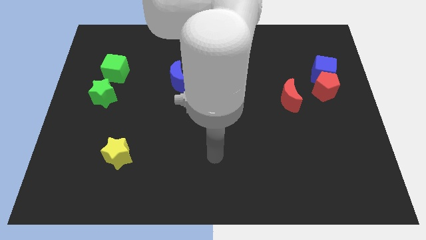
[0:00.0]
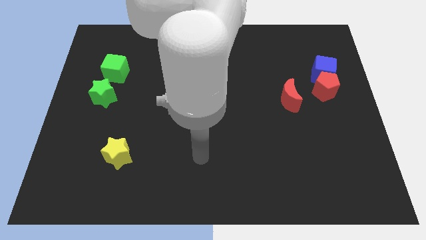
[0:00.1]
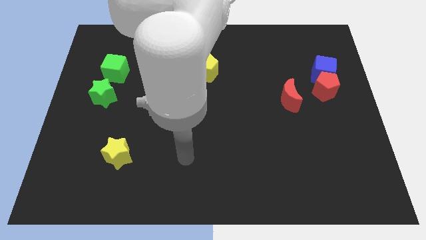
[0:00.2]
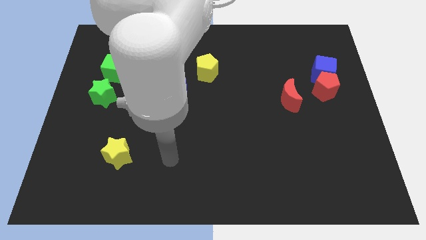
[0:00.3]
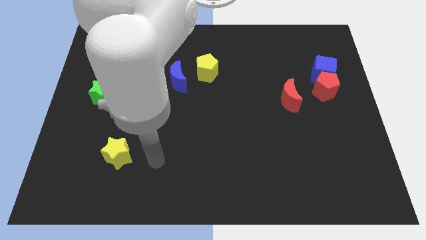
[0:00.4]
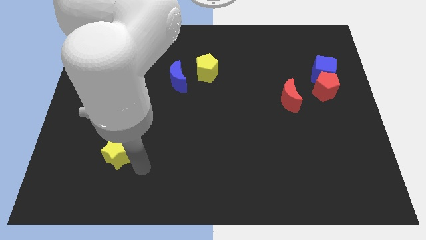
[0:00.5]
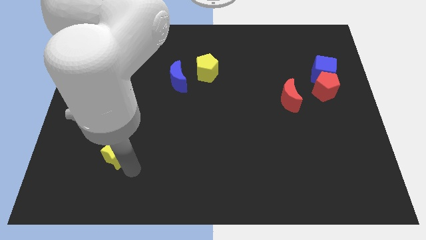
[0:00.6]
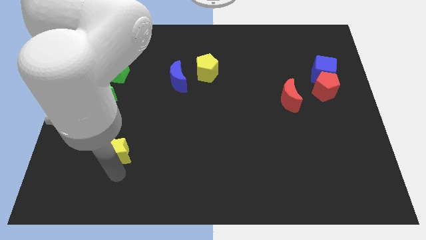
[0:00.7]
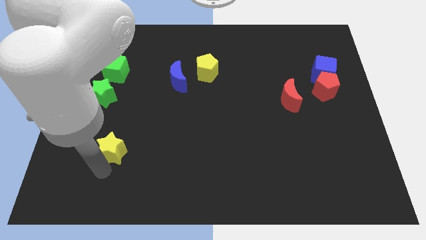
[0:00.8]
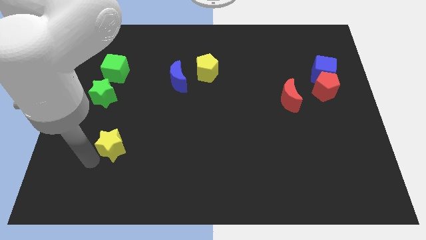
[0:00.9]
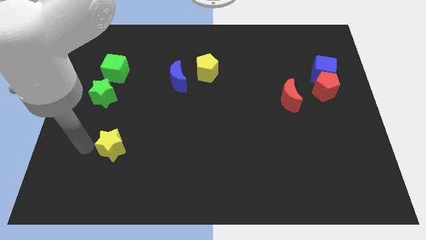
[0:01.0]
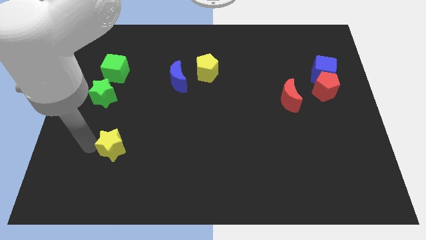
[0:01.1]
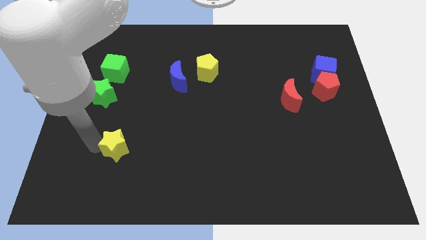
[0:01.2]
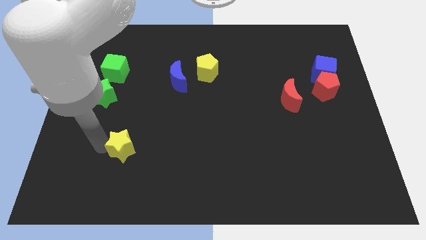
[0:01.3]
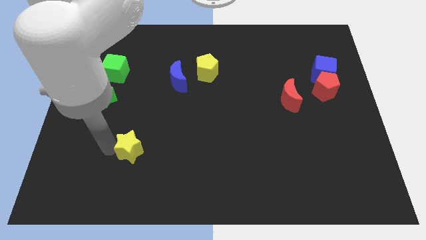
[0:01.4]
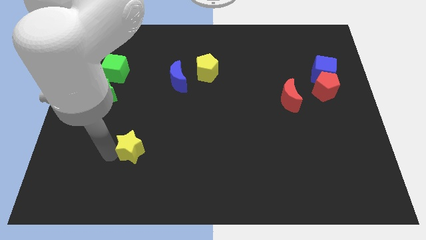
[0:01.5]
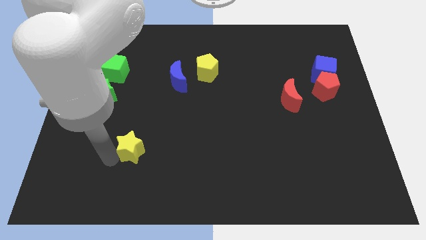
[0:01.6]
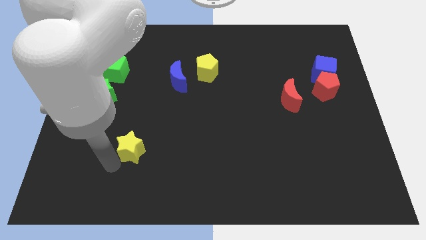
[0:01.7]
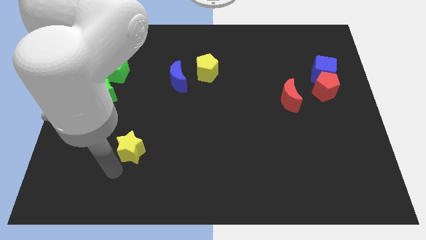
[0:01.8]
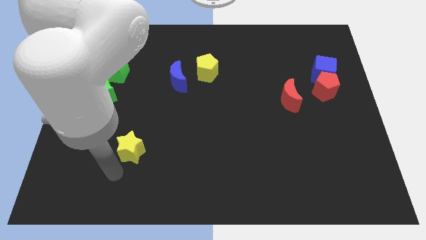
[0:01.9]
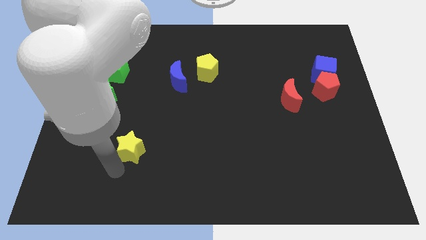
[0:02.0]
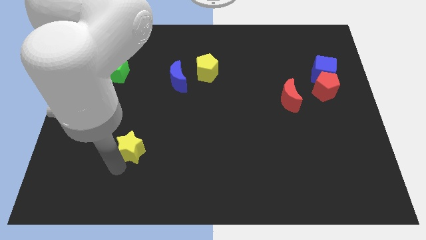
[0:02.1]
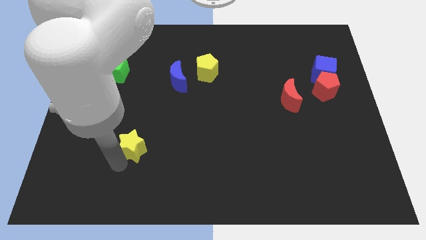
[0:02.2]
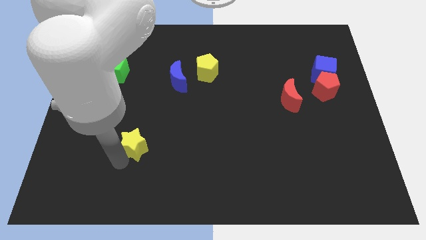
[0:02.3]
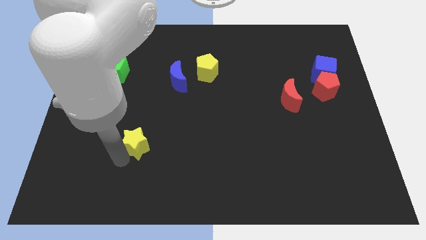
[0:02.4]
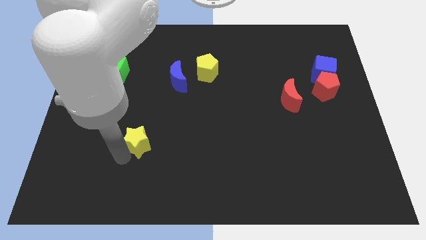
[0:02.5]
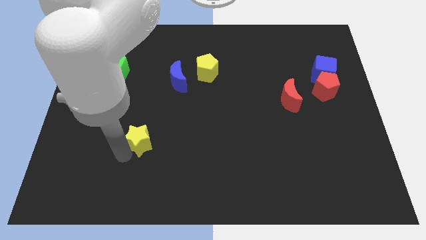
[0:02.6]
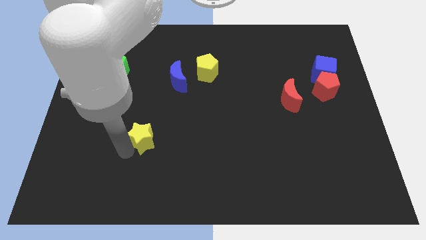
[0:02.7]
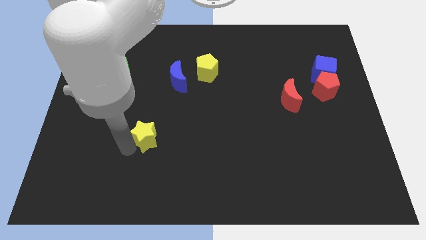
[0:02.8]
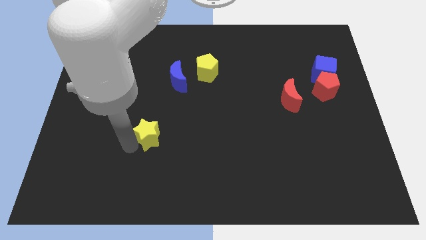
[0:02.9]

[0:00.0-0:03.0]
slightly slide the yellow star up and to the right diagonally

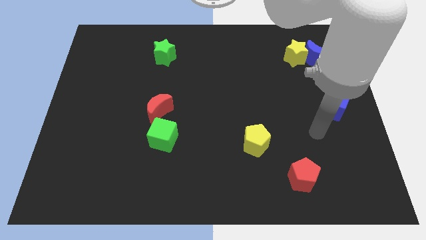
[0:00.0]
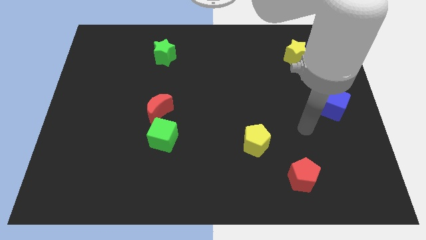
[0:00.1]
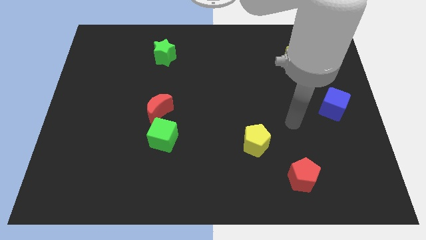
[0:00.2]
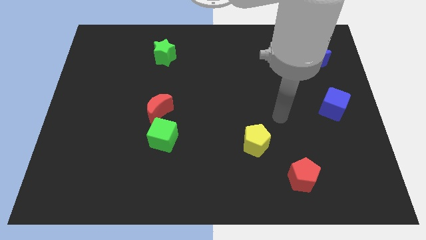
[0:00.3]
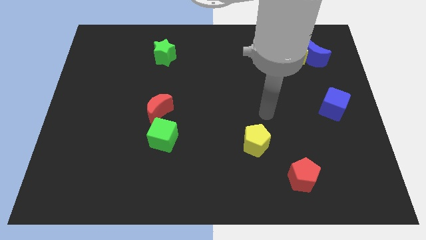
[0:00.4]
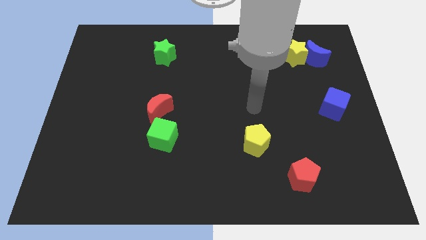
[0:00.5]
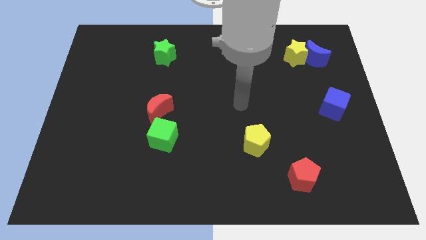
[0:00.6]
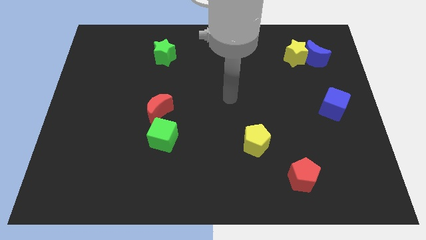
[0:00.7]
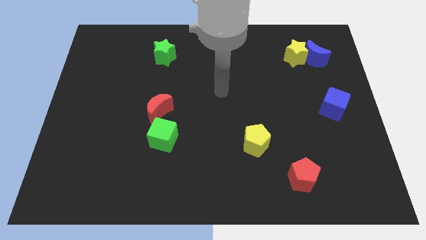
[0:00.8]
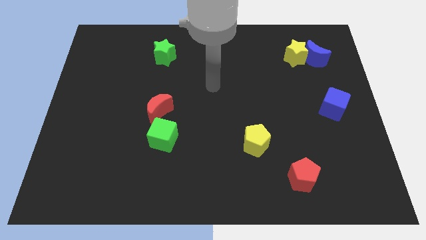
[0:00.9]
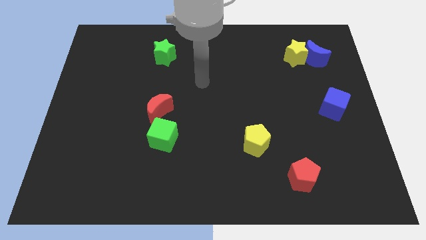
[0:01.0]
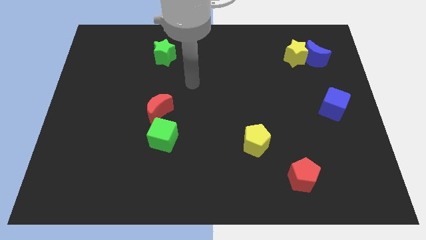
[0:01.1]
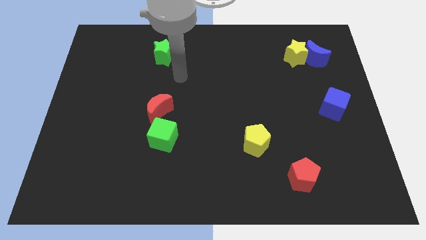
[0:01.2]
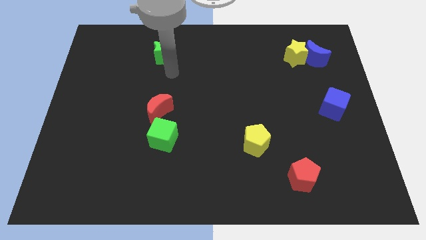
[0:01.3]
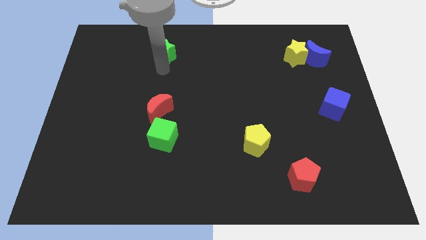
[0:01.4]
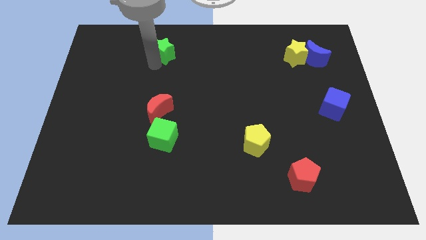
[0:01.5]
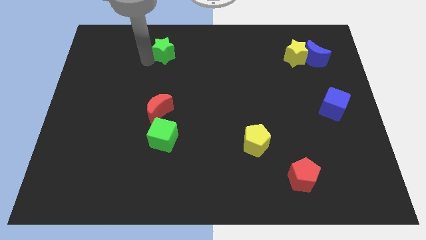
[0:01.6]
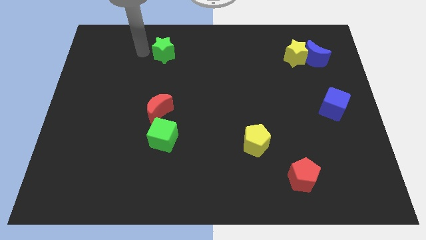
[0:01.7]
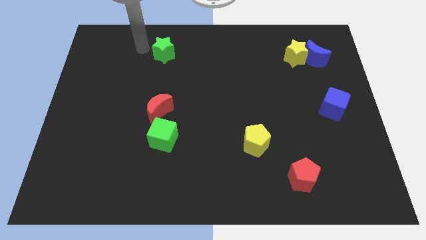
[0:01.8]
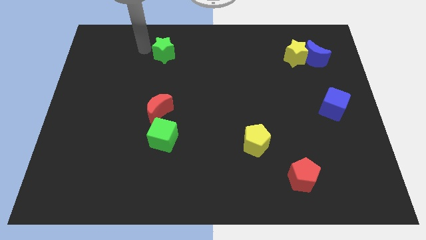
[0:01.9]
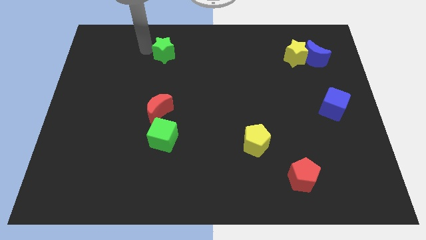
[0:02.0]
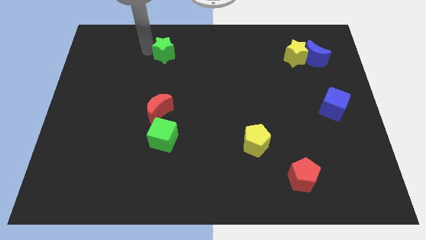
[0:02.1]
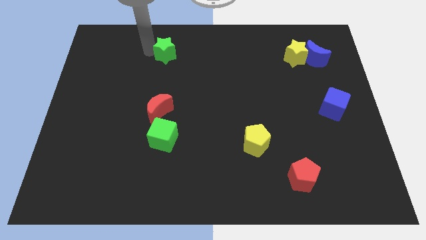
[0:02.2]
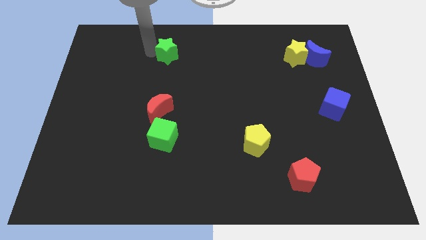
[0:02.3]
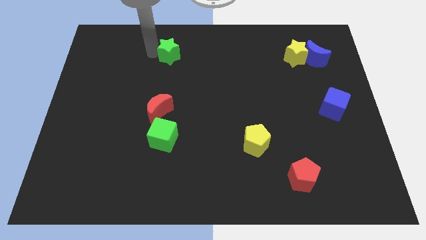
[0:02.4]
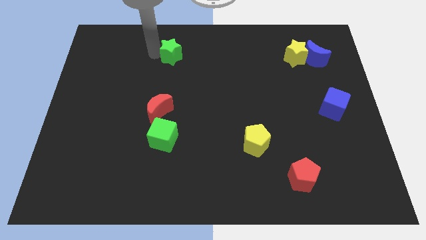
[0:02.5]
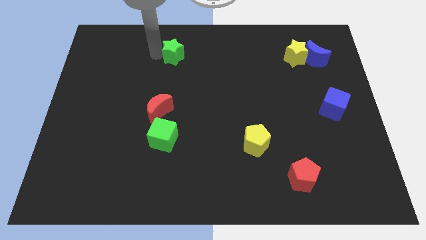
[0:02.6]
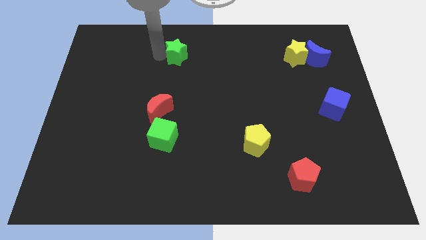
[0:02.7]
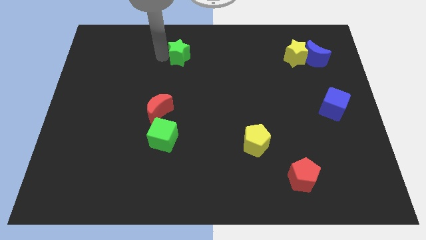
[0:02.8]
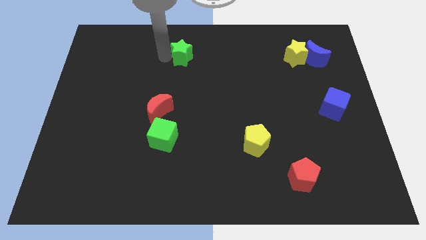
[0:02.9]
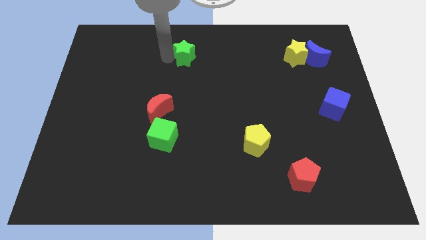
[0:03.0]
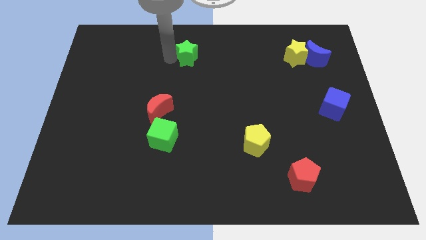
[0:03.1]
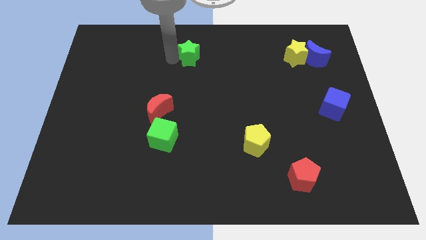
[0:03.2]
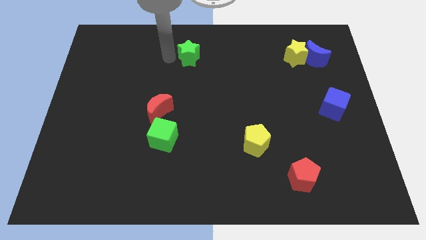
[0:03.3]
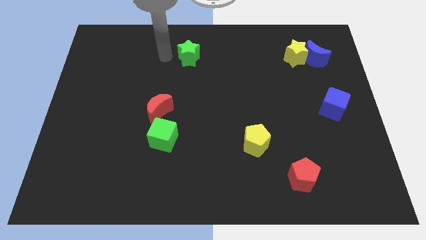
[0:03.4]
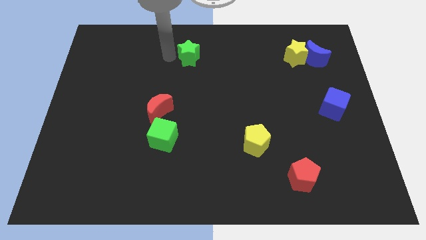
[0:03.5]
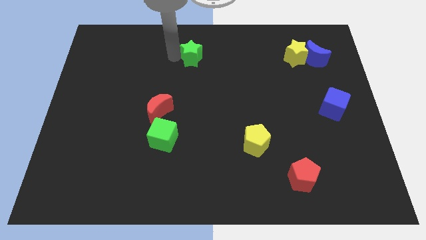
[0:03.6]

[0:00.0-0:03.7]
slightly push the green star to the right

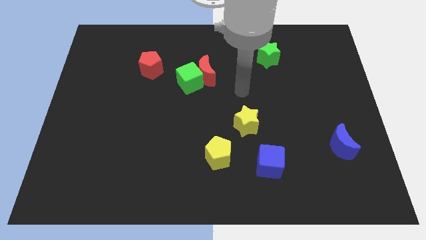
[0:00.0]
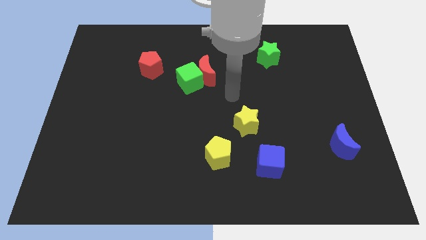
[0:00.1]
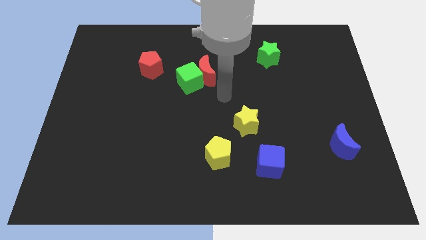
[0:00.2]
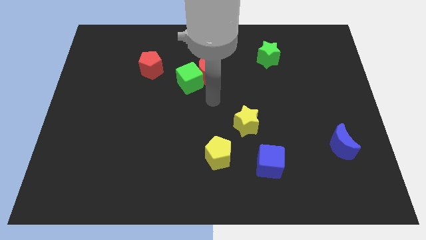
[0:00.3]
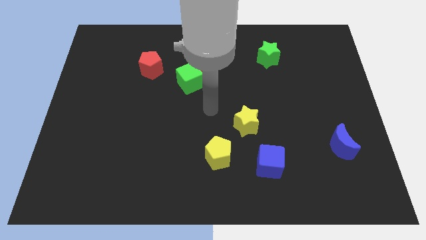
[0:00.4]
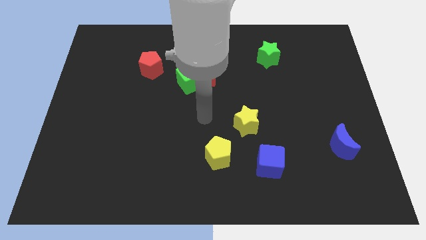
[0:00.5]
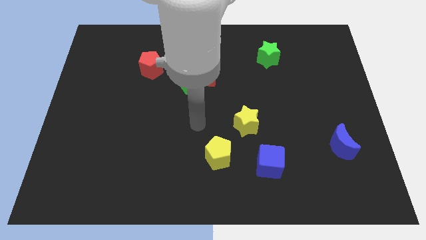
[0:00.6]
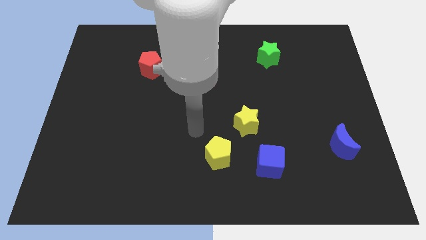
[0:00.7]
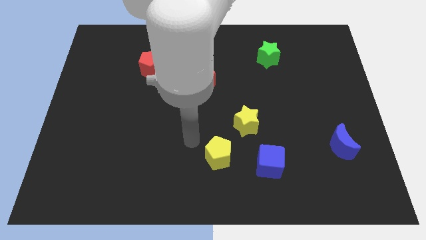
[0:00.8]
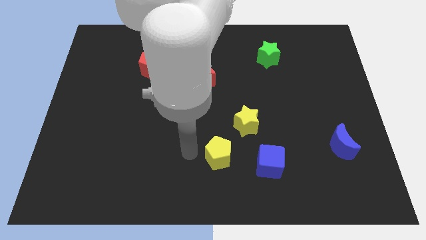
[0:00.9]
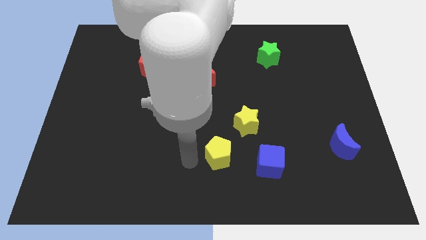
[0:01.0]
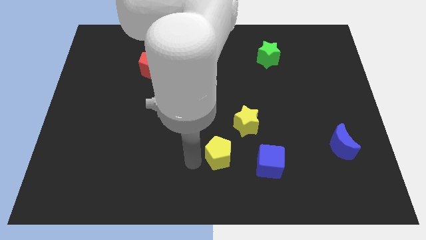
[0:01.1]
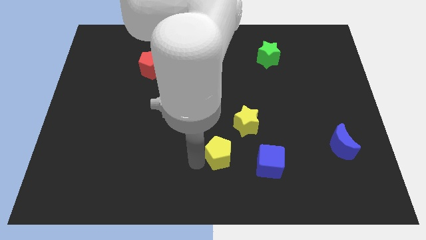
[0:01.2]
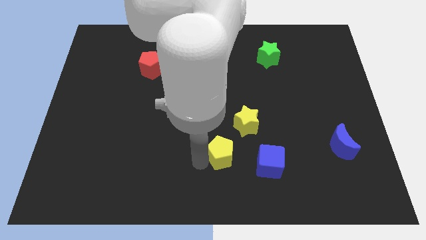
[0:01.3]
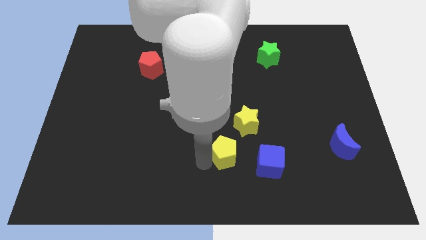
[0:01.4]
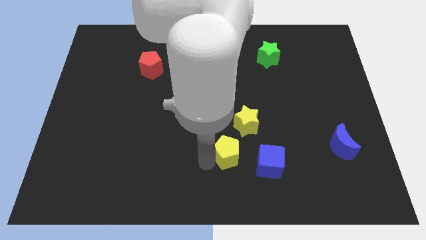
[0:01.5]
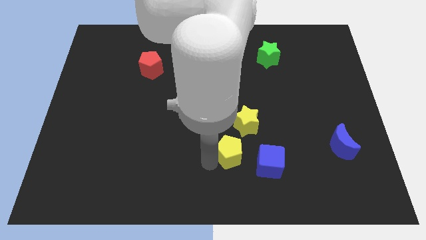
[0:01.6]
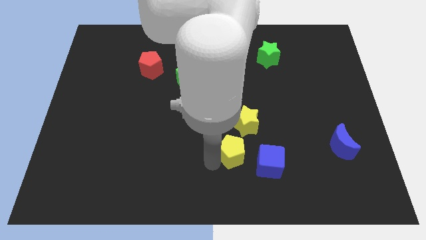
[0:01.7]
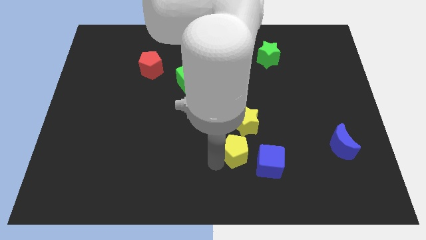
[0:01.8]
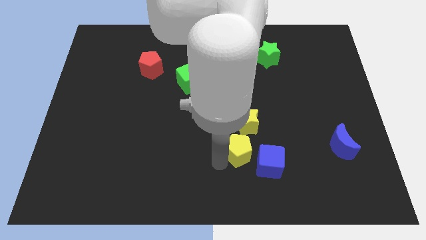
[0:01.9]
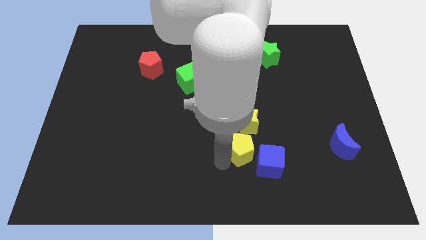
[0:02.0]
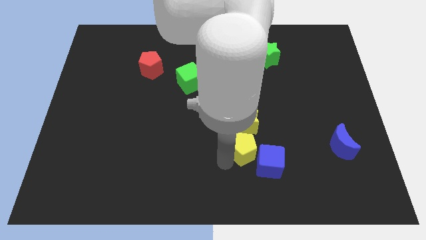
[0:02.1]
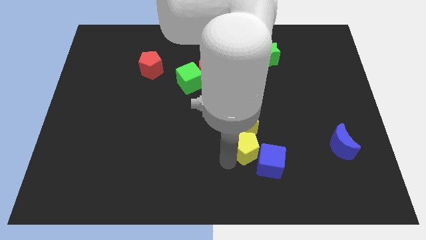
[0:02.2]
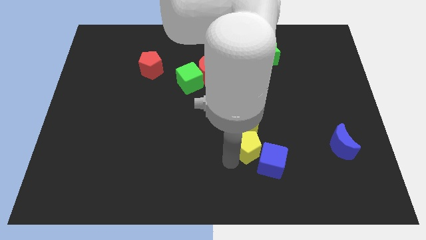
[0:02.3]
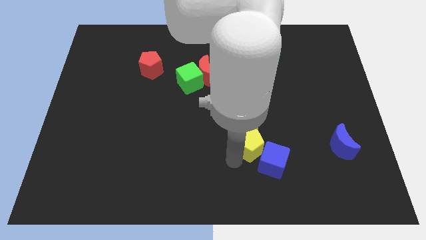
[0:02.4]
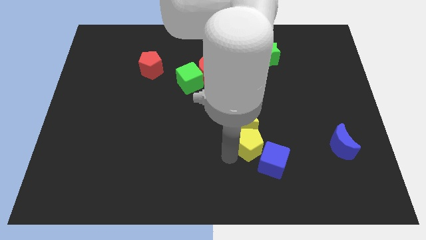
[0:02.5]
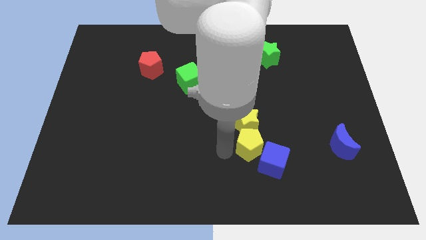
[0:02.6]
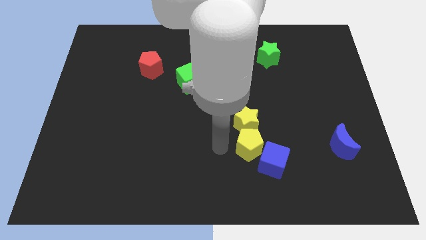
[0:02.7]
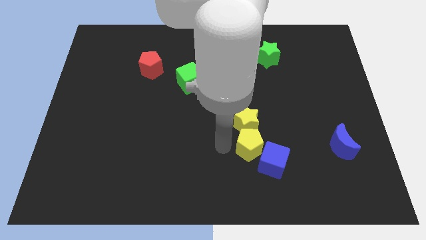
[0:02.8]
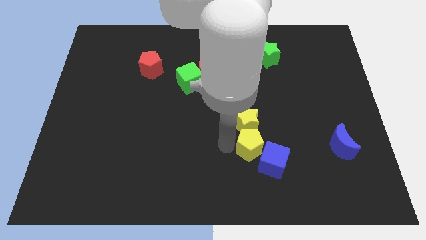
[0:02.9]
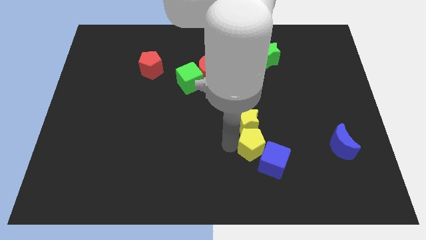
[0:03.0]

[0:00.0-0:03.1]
push the yellow pentagon a bit right
